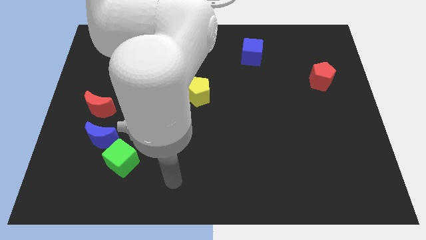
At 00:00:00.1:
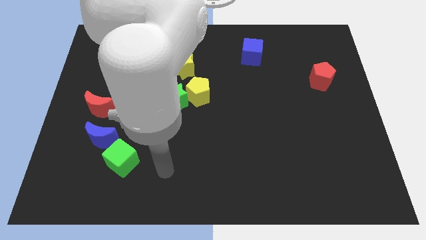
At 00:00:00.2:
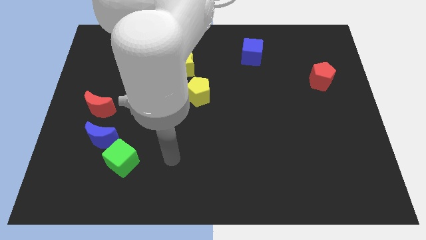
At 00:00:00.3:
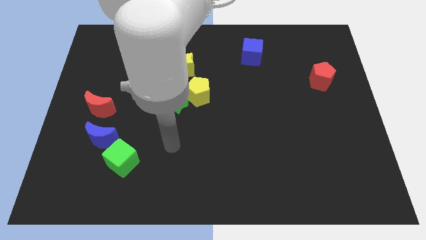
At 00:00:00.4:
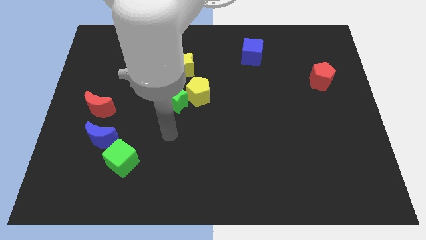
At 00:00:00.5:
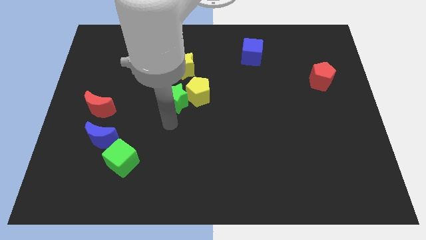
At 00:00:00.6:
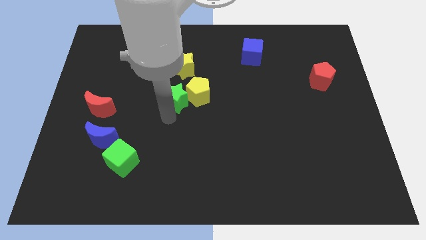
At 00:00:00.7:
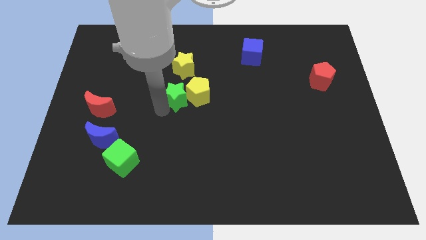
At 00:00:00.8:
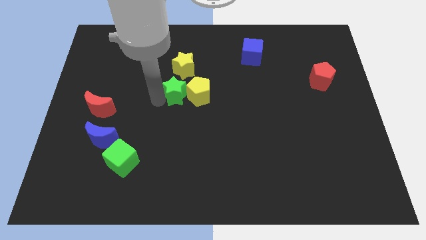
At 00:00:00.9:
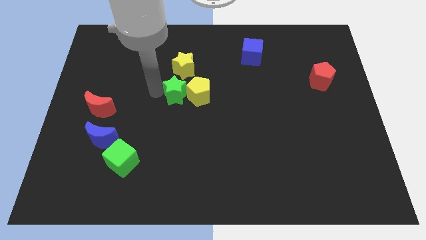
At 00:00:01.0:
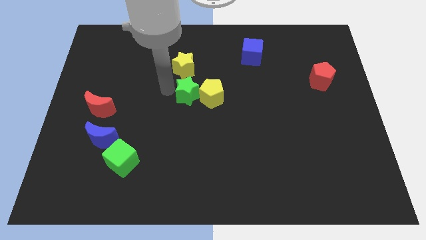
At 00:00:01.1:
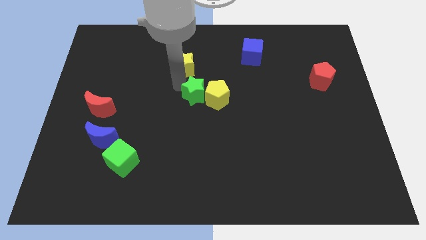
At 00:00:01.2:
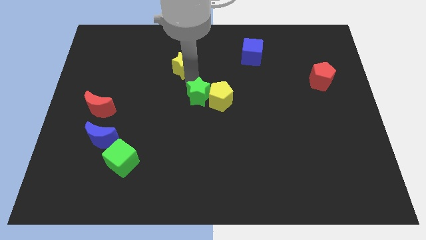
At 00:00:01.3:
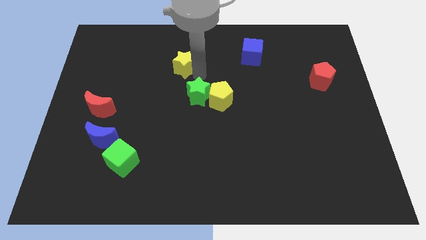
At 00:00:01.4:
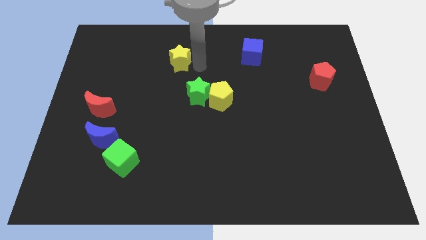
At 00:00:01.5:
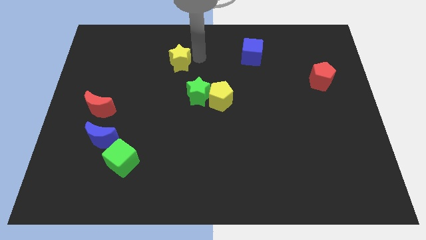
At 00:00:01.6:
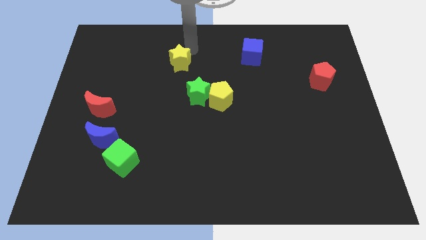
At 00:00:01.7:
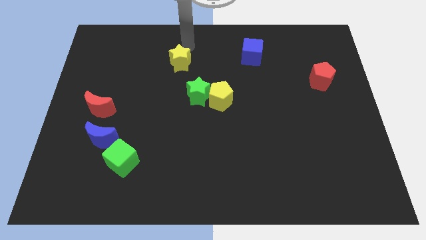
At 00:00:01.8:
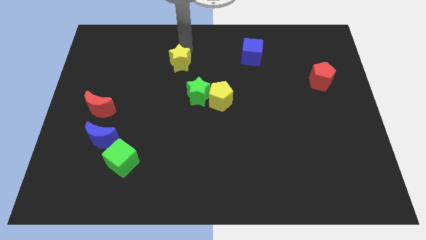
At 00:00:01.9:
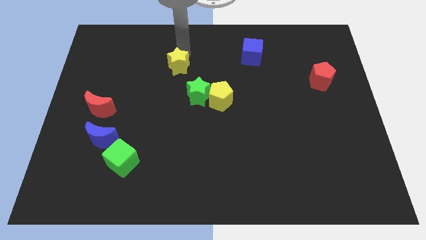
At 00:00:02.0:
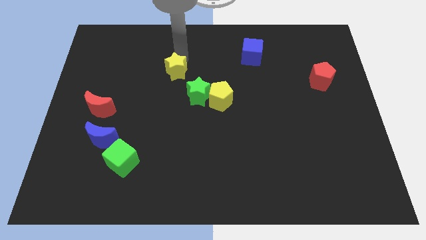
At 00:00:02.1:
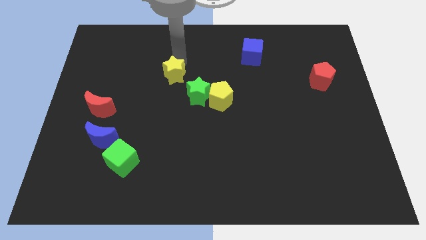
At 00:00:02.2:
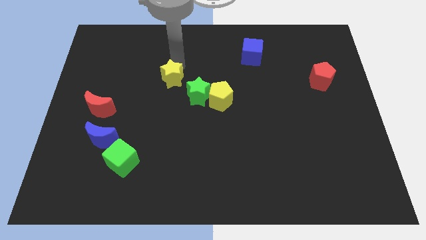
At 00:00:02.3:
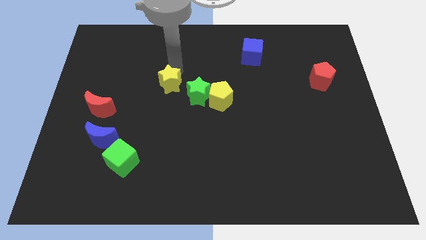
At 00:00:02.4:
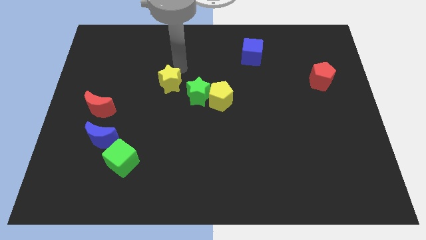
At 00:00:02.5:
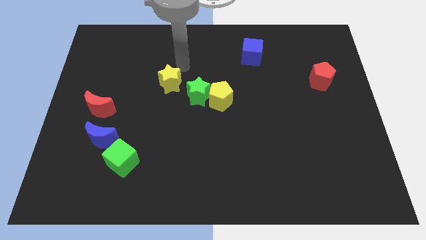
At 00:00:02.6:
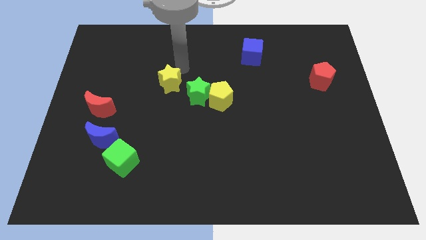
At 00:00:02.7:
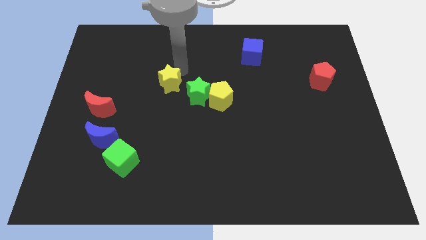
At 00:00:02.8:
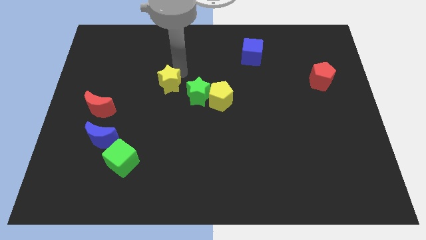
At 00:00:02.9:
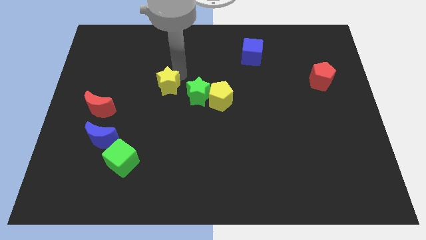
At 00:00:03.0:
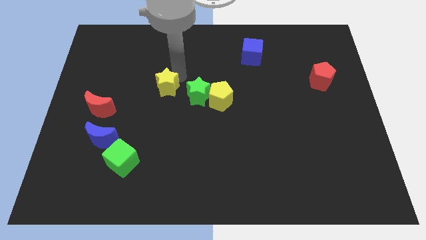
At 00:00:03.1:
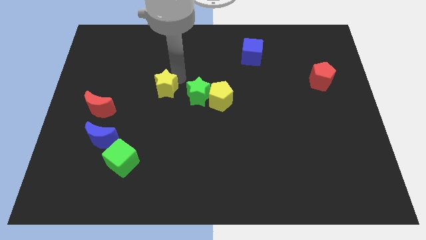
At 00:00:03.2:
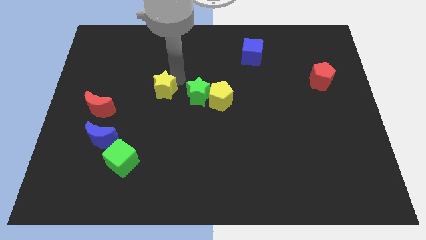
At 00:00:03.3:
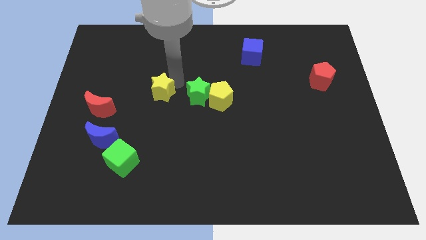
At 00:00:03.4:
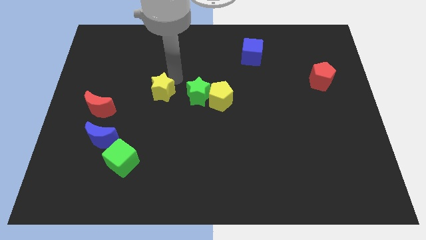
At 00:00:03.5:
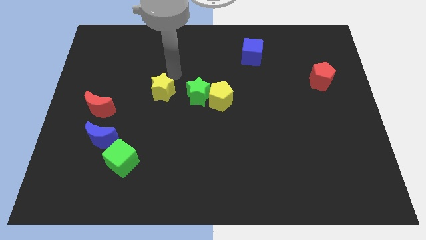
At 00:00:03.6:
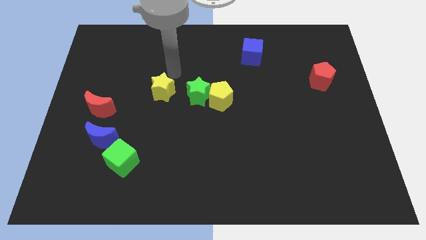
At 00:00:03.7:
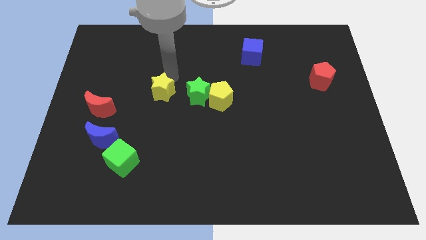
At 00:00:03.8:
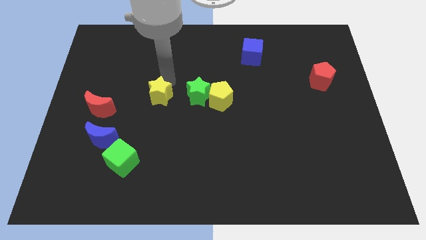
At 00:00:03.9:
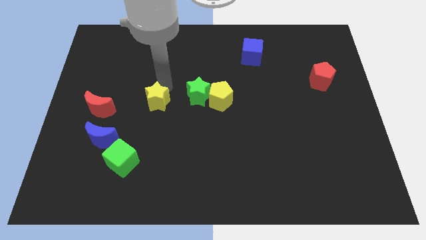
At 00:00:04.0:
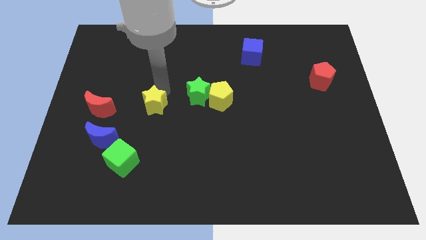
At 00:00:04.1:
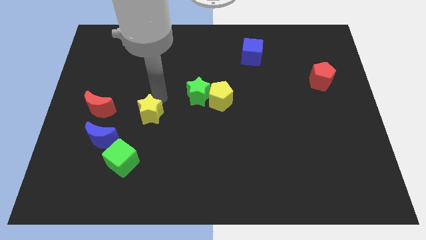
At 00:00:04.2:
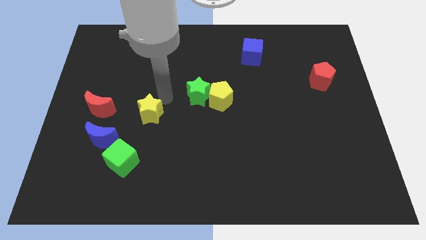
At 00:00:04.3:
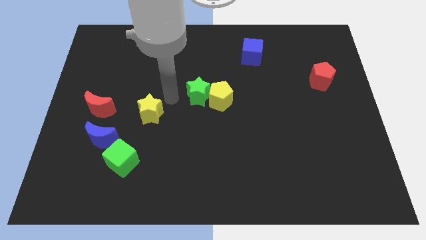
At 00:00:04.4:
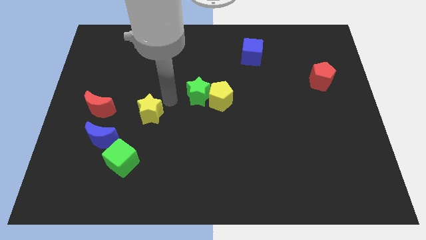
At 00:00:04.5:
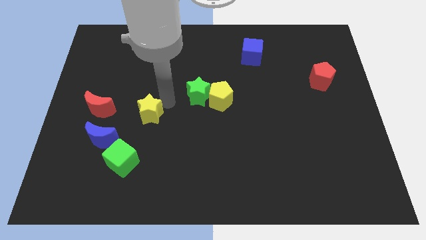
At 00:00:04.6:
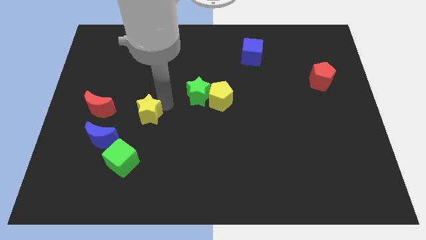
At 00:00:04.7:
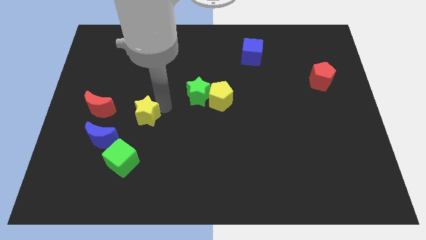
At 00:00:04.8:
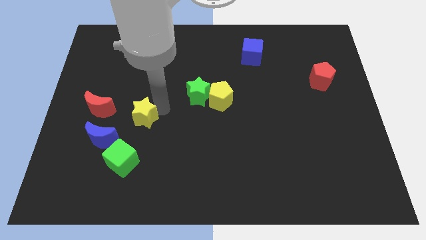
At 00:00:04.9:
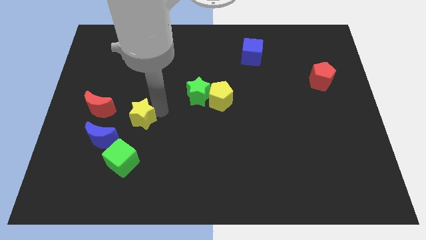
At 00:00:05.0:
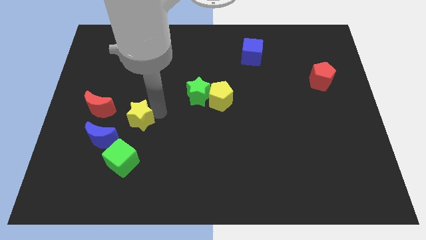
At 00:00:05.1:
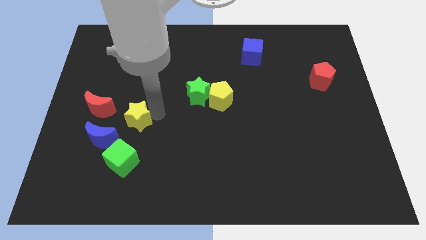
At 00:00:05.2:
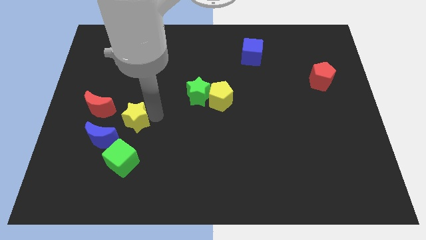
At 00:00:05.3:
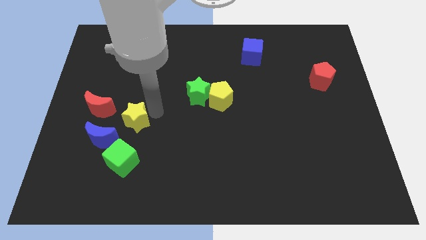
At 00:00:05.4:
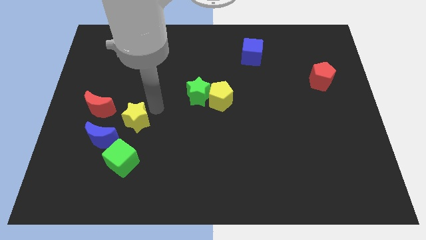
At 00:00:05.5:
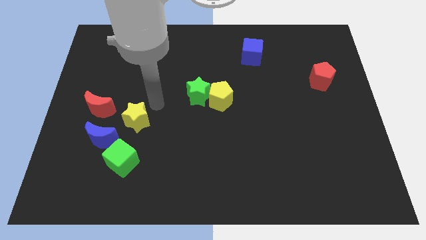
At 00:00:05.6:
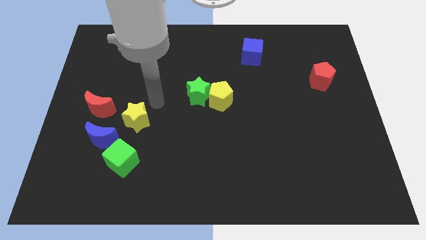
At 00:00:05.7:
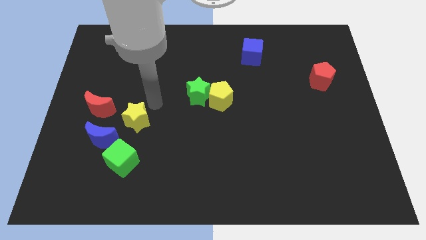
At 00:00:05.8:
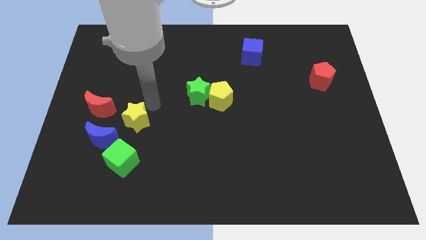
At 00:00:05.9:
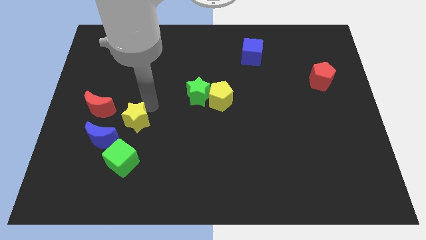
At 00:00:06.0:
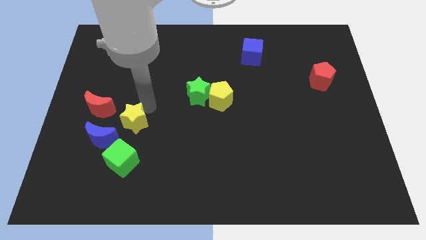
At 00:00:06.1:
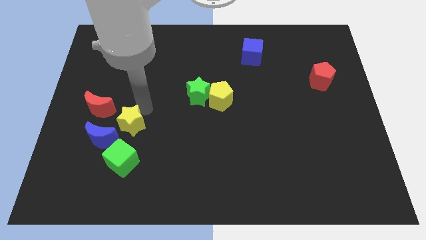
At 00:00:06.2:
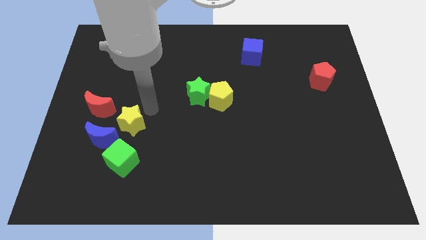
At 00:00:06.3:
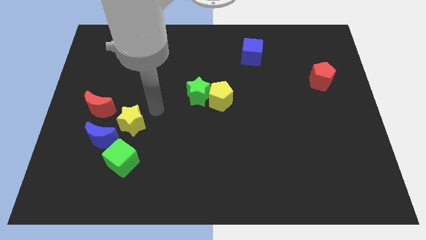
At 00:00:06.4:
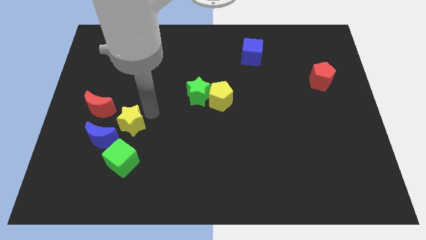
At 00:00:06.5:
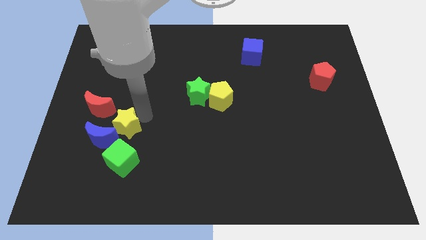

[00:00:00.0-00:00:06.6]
put the yellow star towards the blue moon
